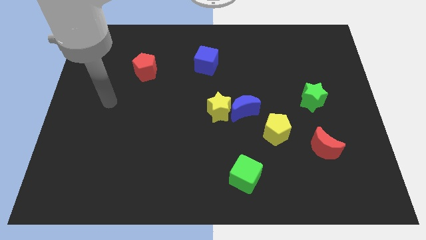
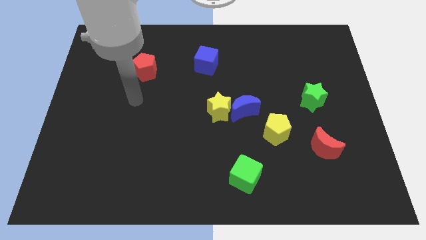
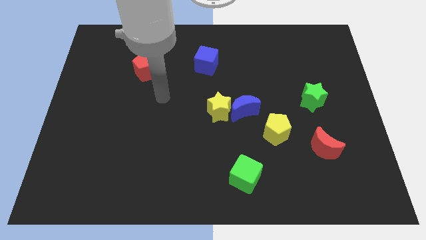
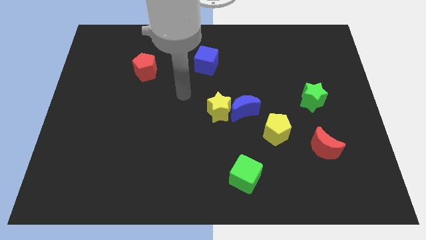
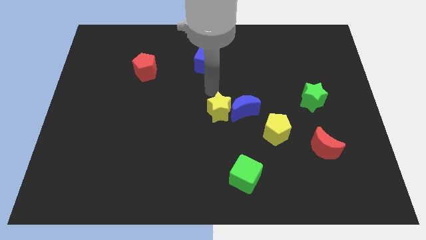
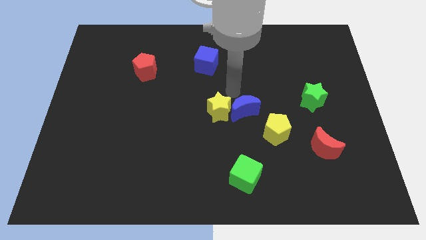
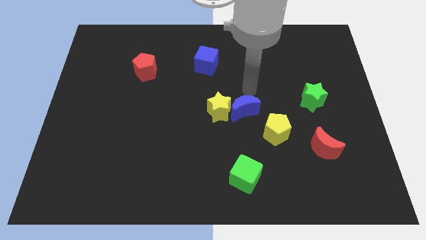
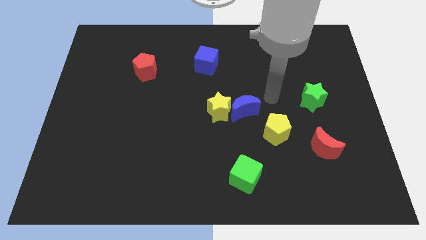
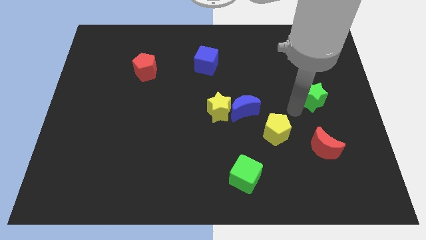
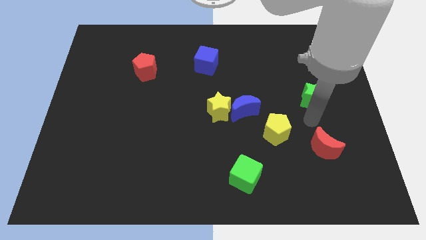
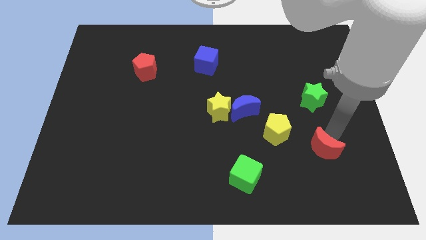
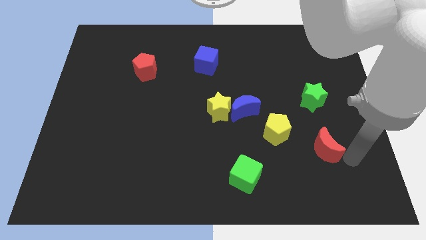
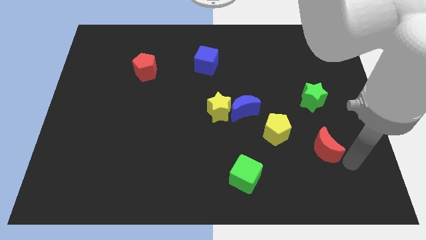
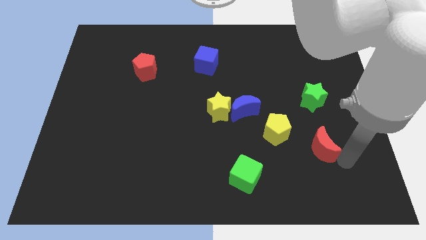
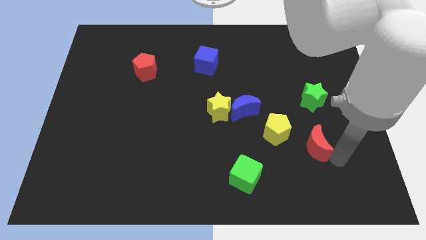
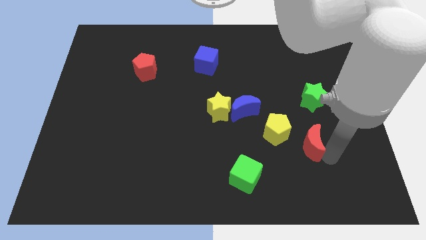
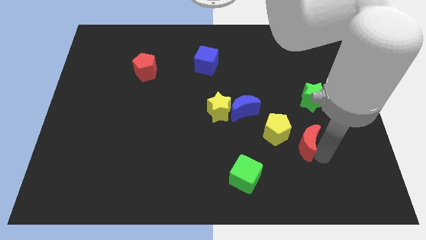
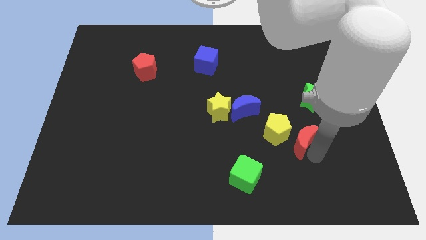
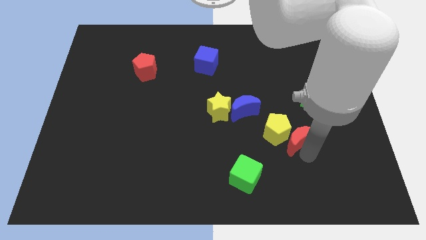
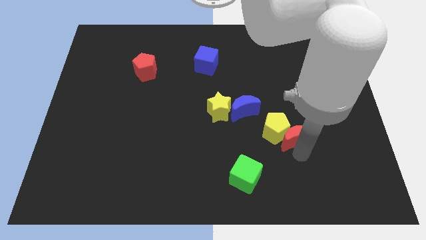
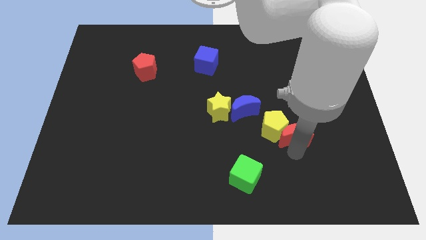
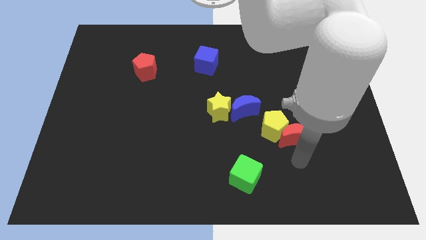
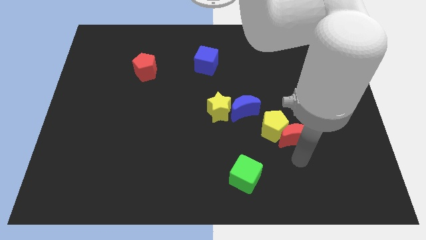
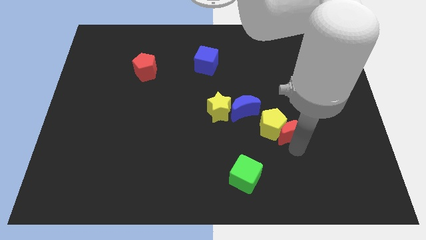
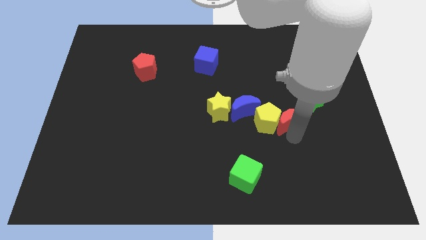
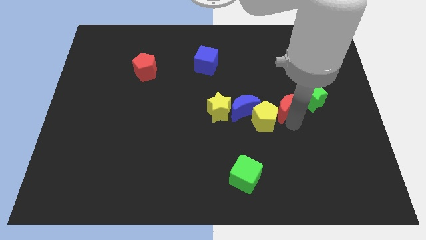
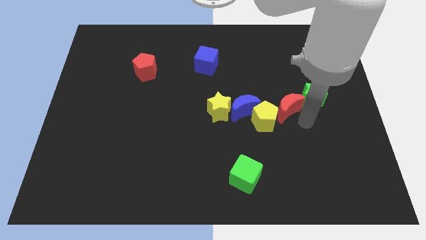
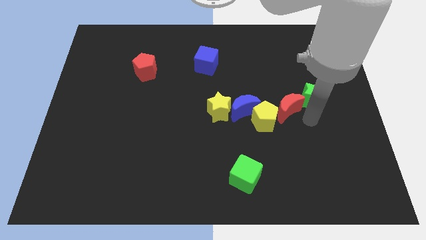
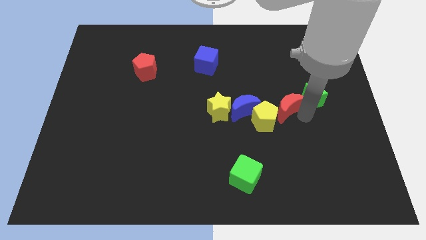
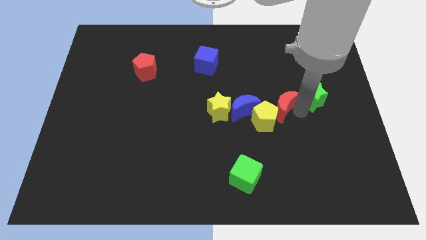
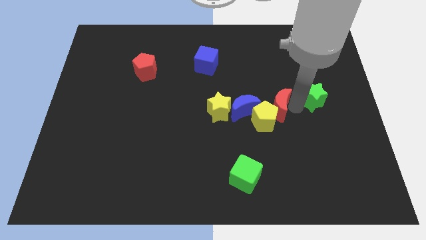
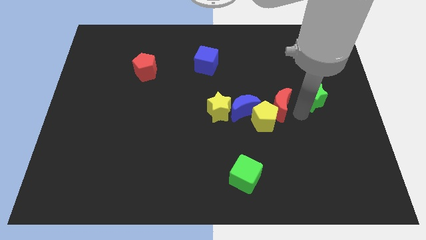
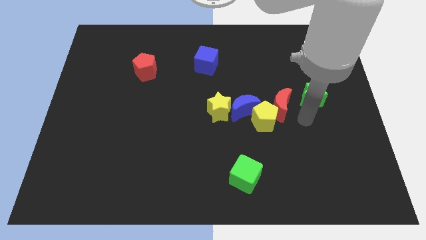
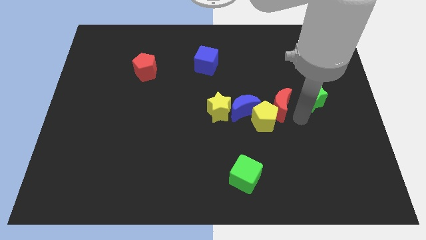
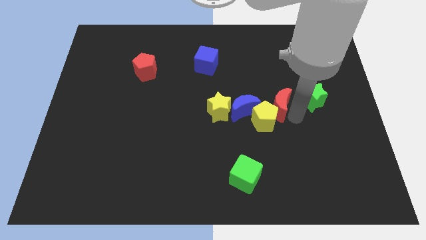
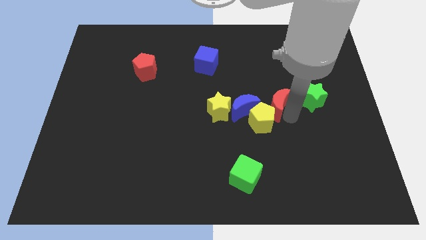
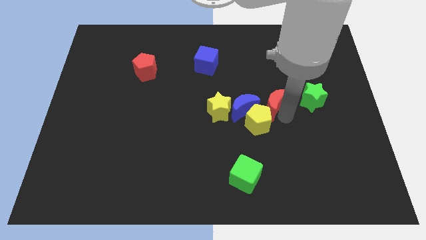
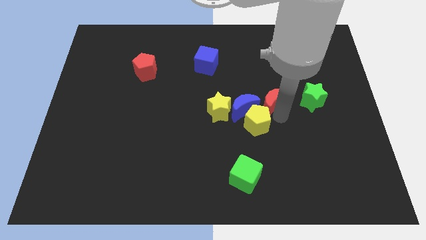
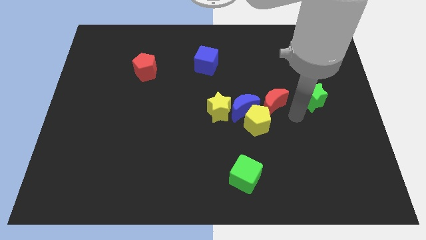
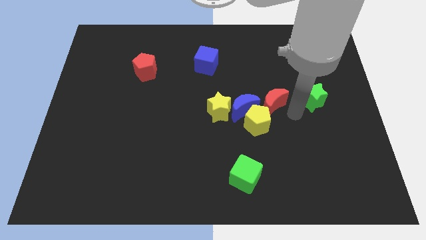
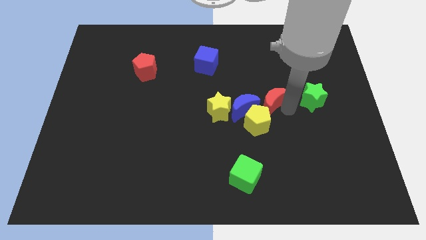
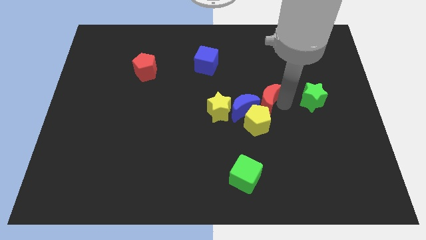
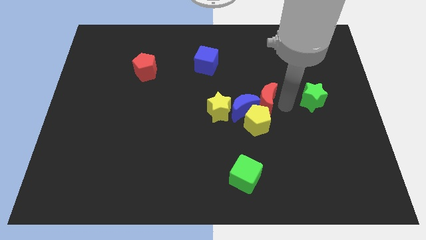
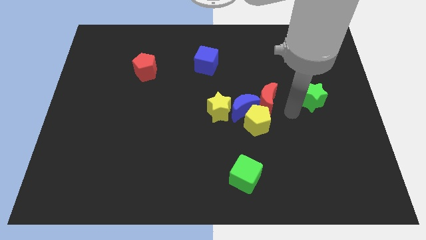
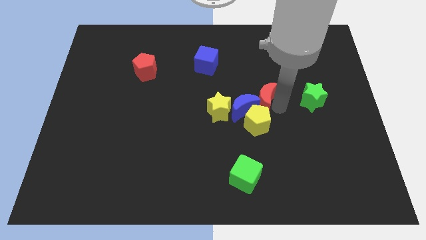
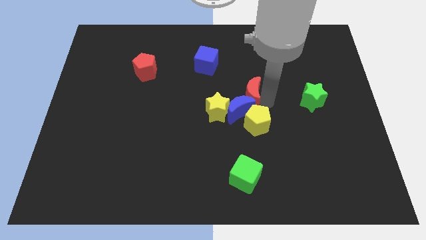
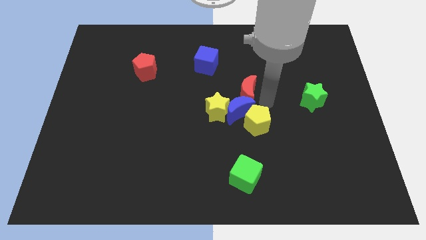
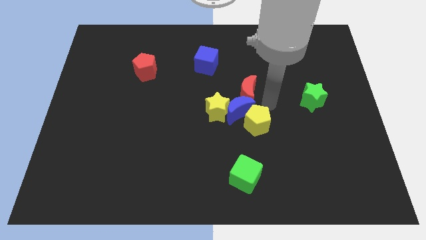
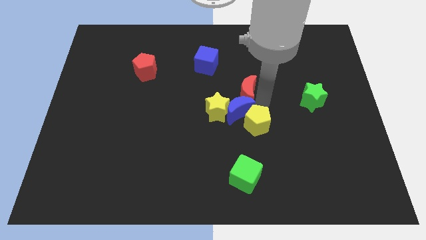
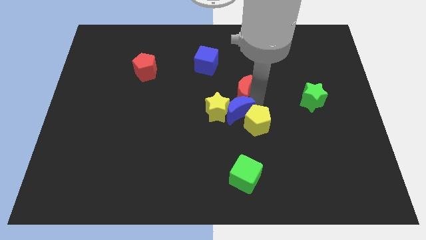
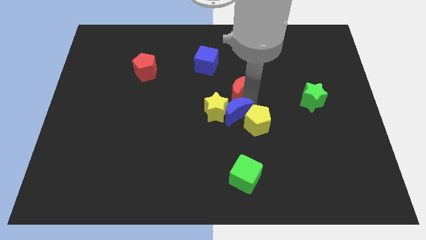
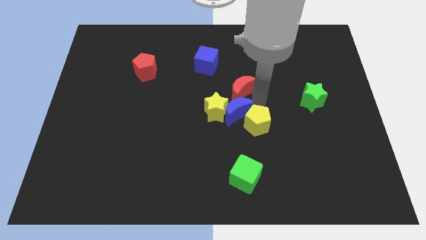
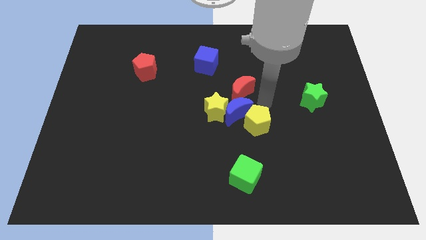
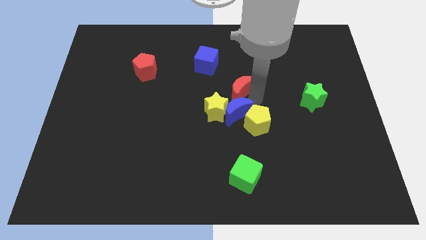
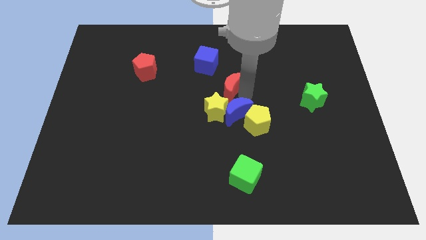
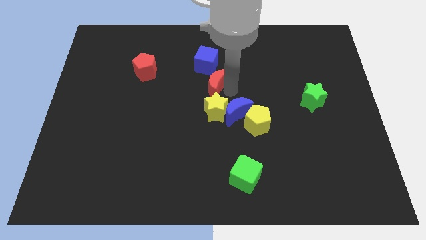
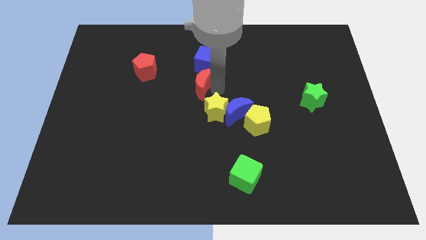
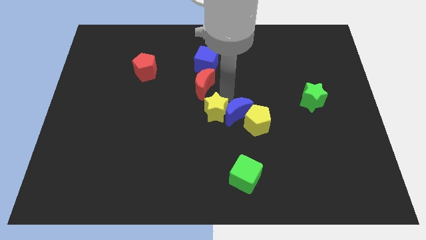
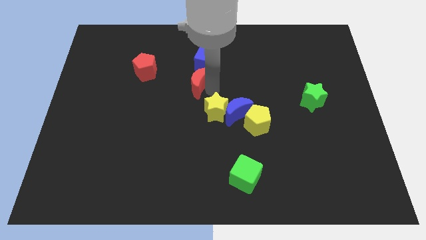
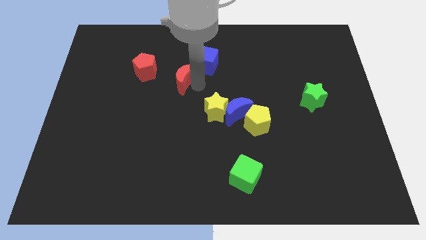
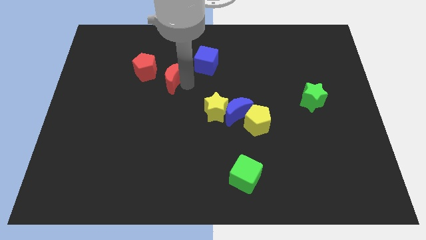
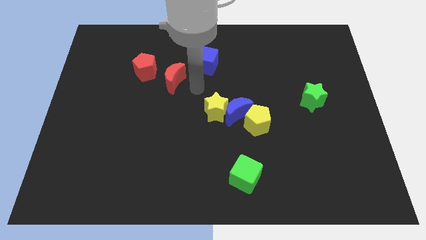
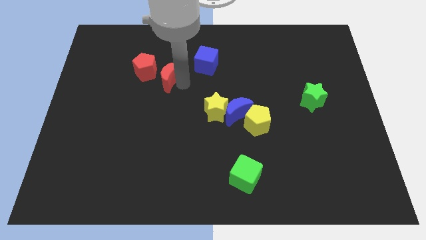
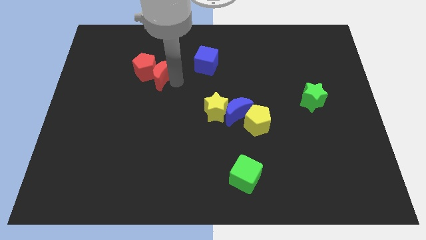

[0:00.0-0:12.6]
push the red moon next to the red pentagon

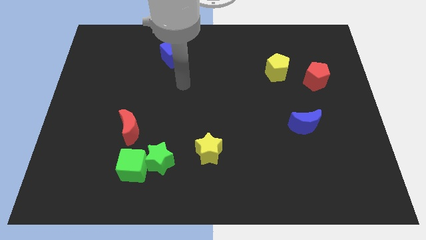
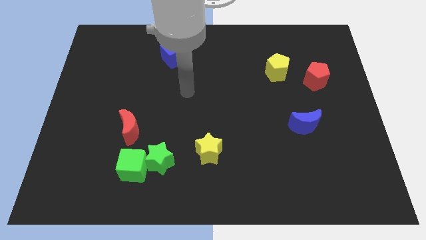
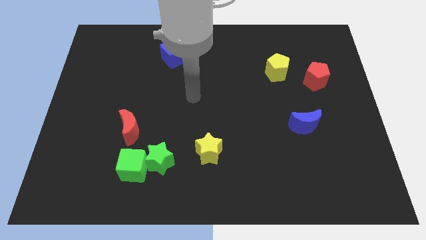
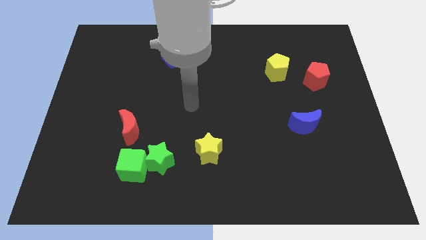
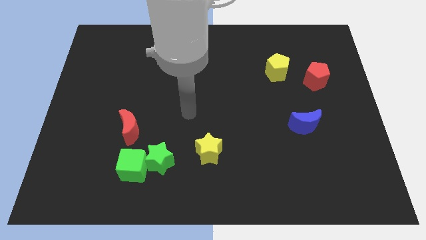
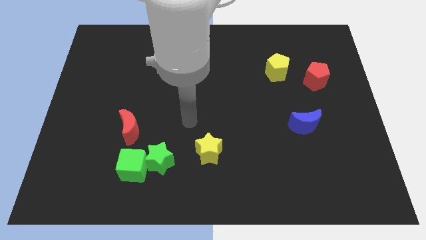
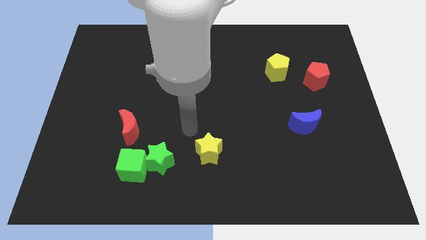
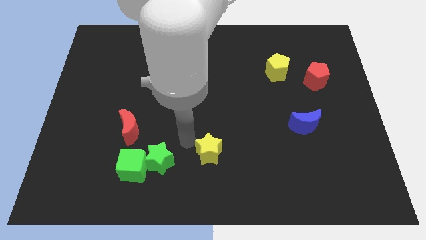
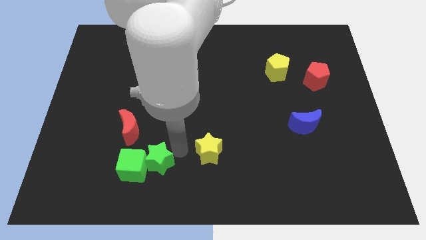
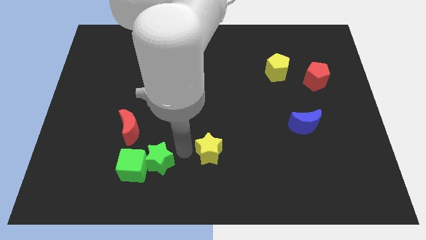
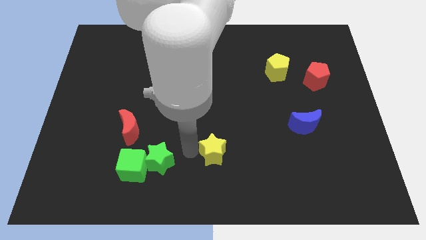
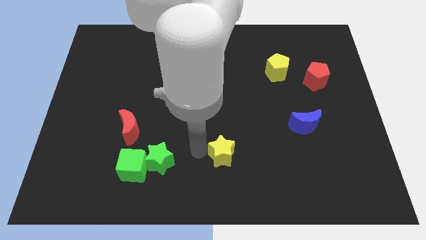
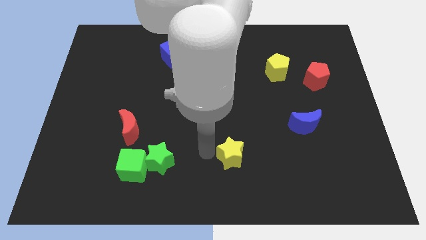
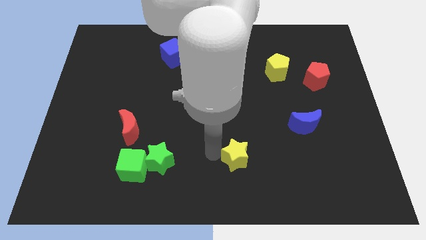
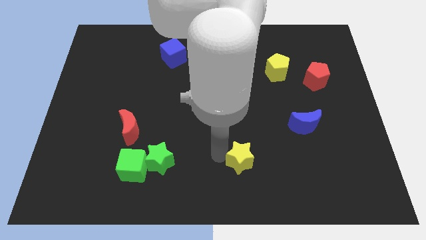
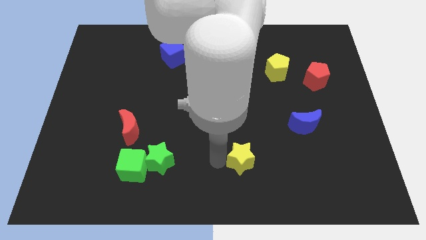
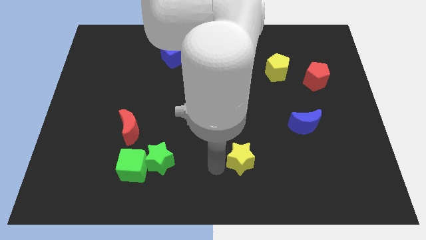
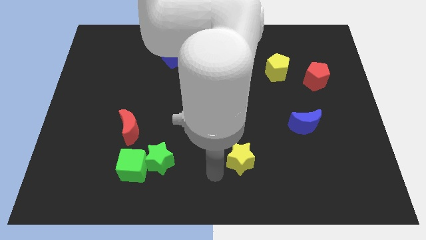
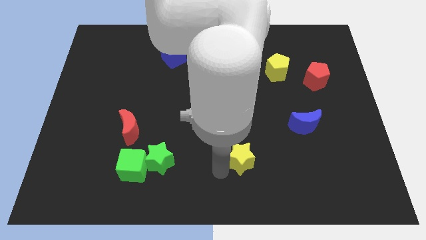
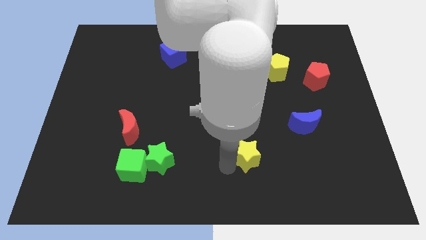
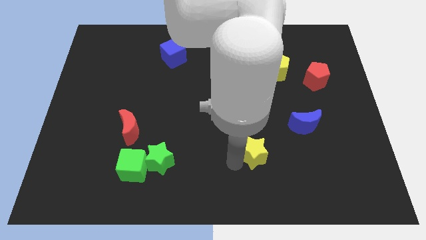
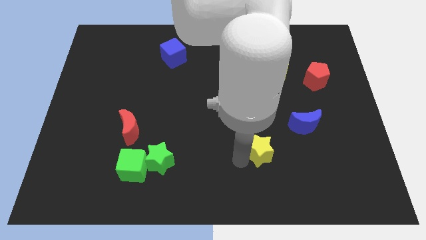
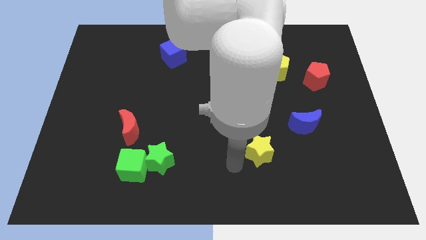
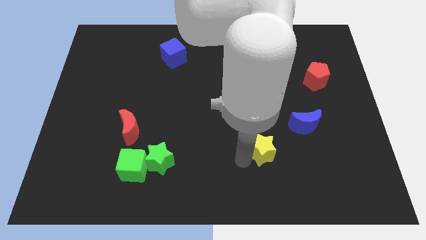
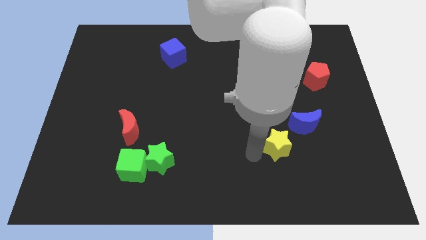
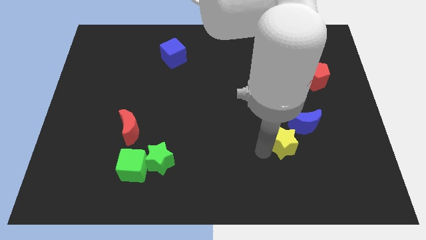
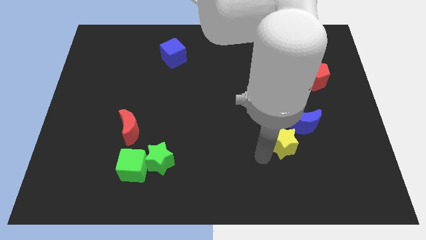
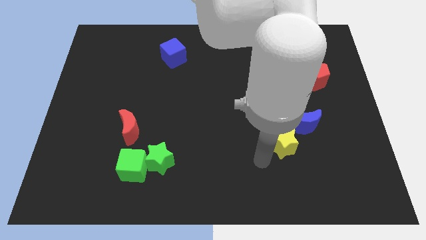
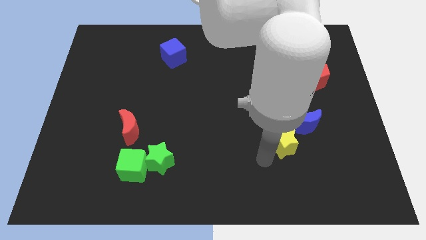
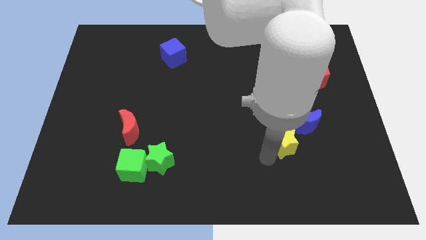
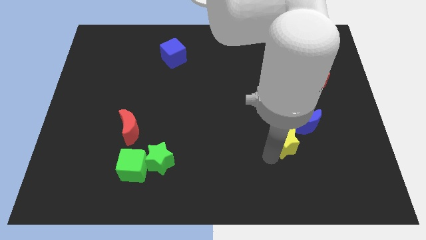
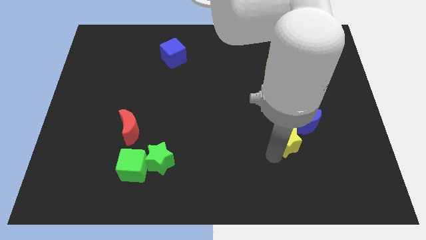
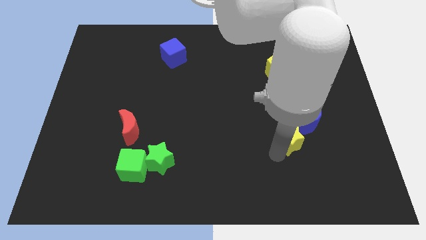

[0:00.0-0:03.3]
slide the yellow star towards the blue moon
